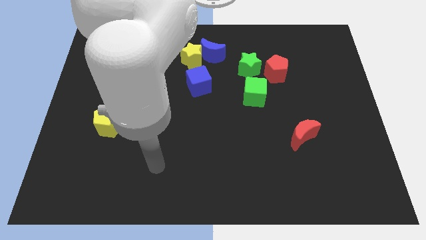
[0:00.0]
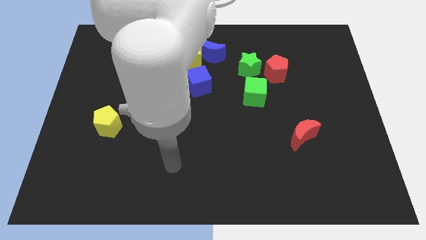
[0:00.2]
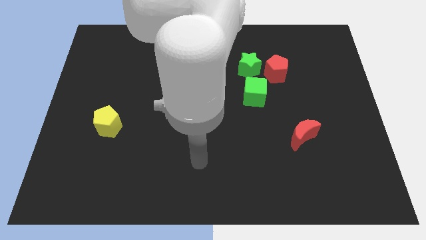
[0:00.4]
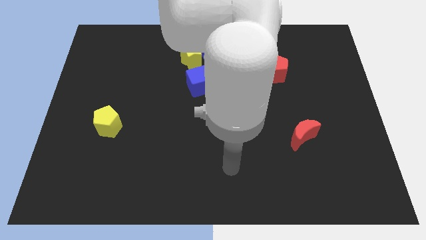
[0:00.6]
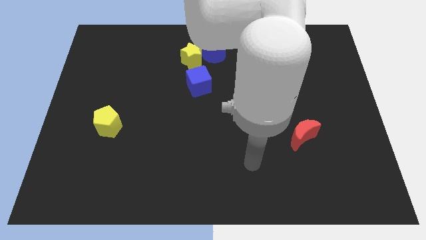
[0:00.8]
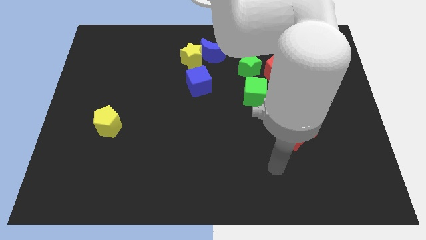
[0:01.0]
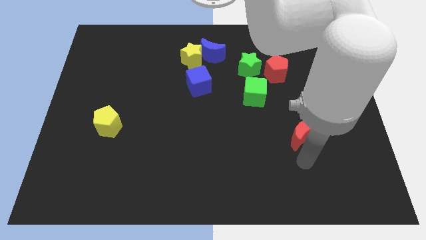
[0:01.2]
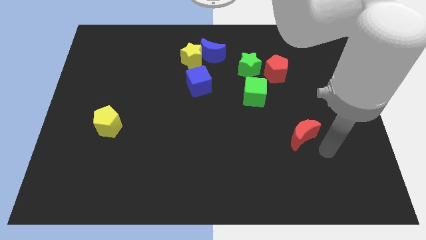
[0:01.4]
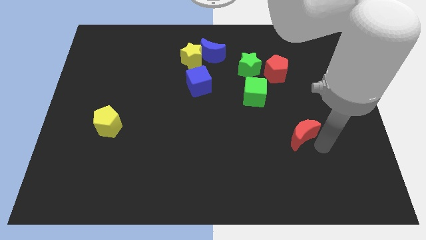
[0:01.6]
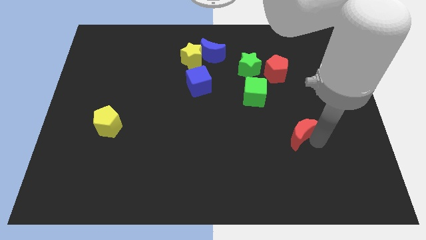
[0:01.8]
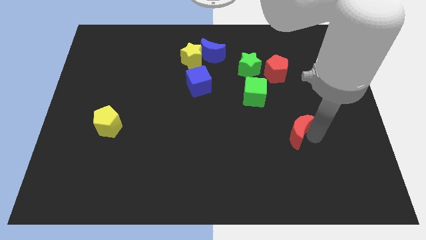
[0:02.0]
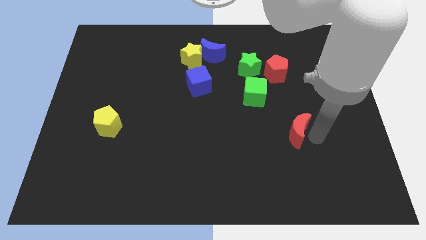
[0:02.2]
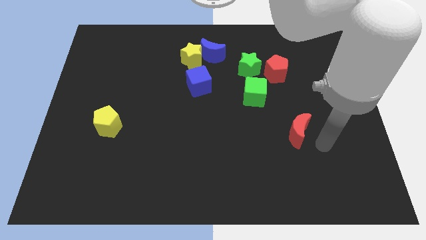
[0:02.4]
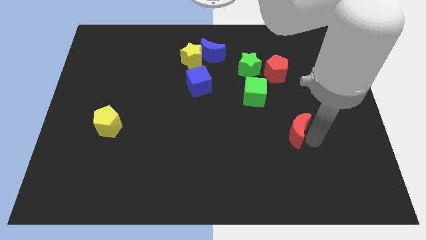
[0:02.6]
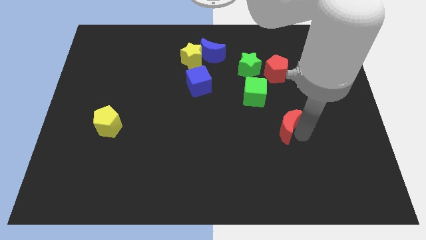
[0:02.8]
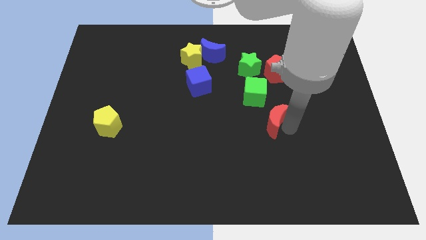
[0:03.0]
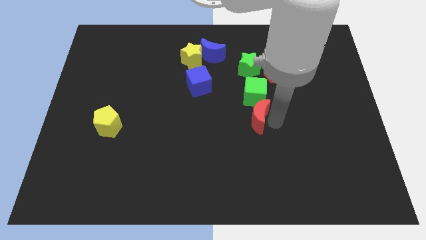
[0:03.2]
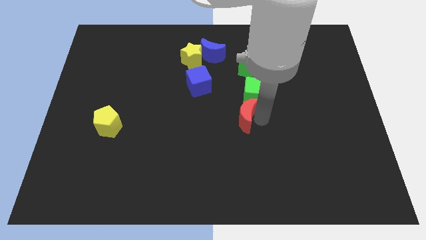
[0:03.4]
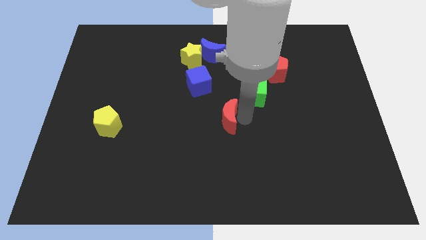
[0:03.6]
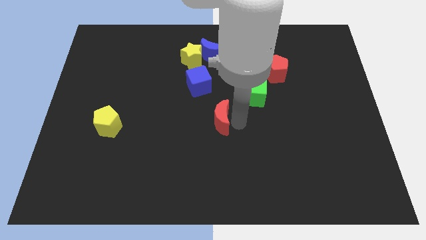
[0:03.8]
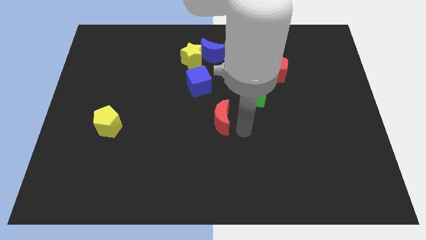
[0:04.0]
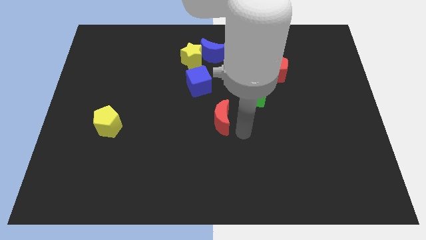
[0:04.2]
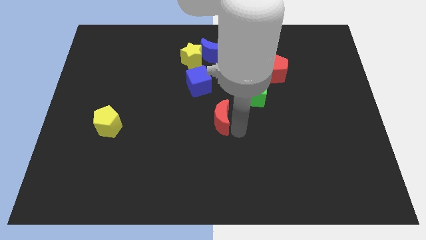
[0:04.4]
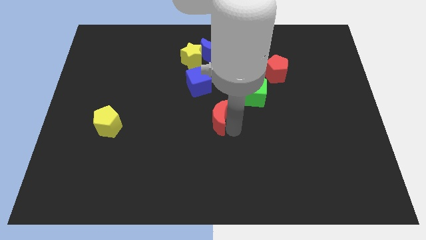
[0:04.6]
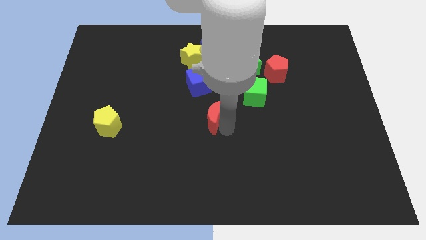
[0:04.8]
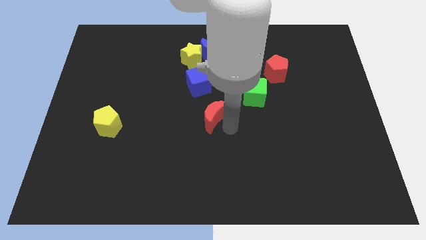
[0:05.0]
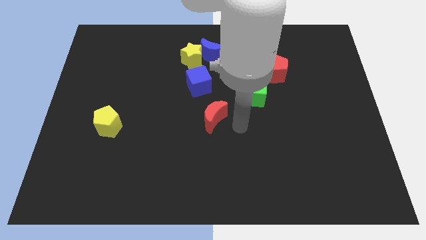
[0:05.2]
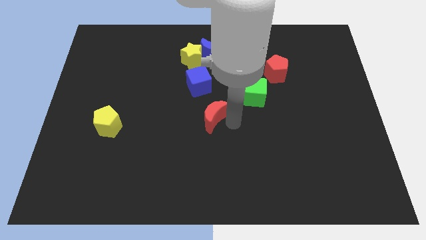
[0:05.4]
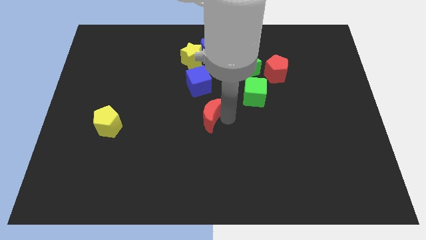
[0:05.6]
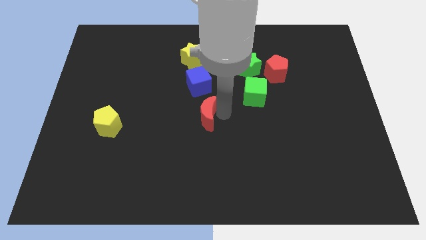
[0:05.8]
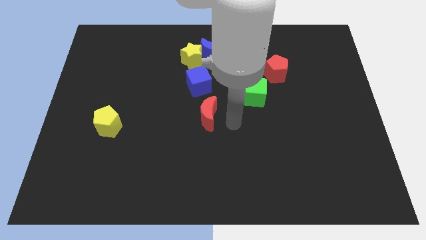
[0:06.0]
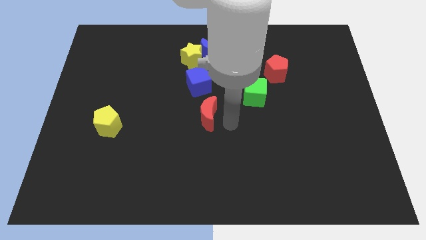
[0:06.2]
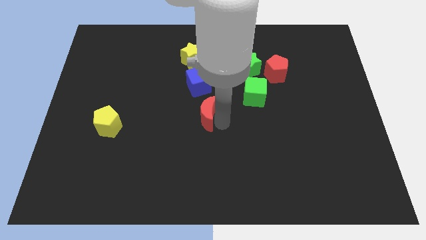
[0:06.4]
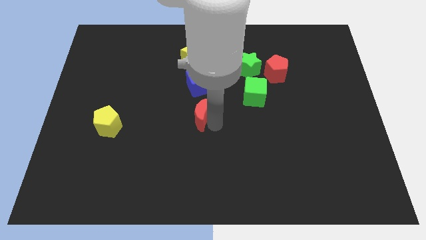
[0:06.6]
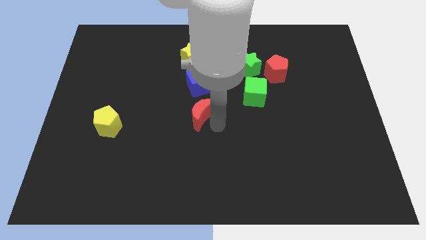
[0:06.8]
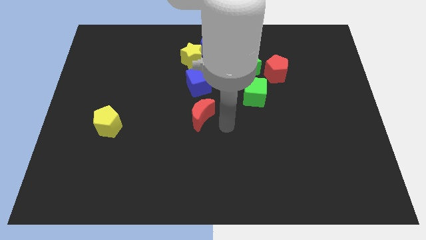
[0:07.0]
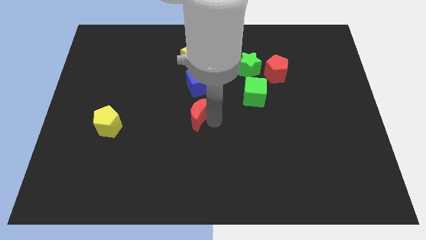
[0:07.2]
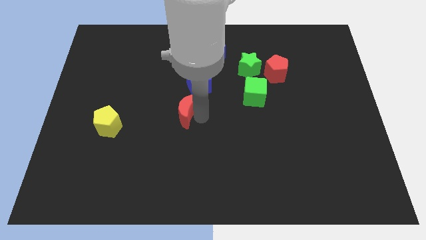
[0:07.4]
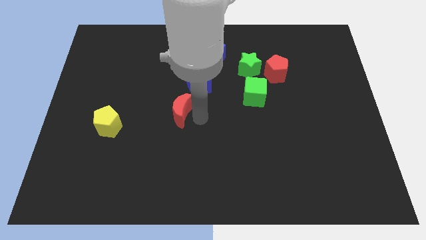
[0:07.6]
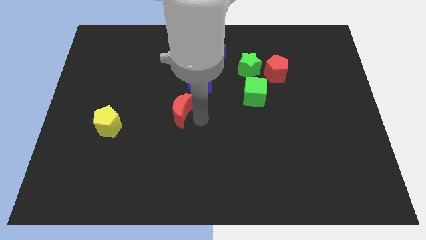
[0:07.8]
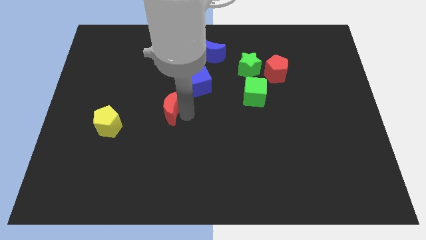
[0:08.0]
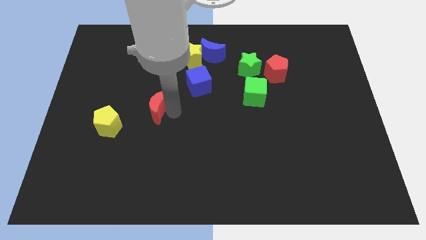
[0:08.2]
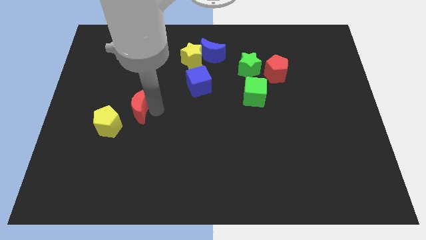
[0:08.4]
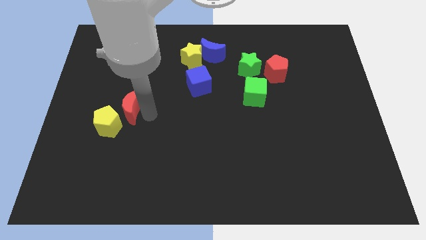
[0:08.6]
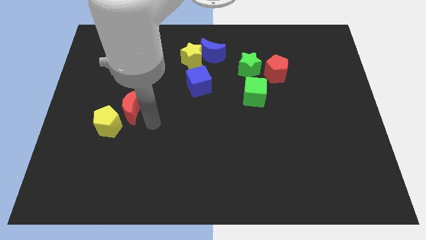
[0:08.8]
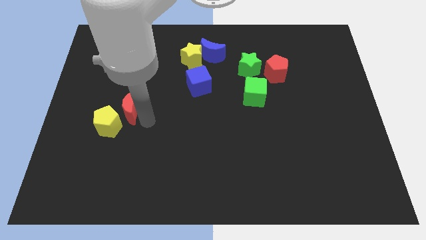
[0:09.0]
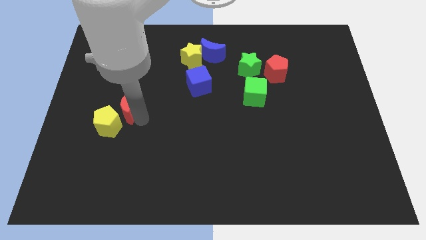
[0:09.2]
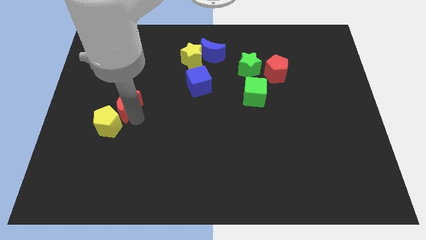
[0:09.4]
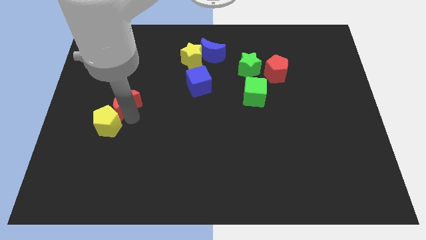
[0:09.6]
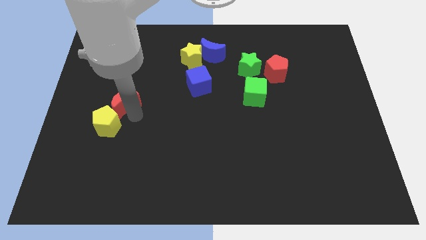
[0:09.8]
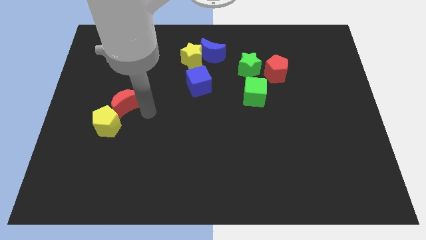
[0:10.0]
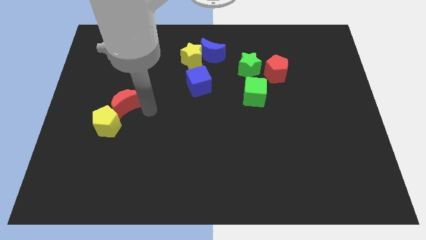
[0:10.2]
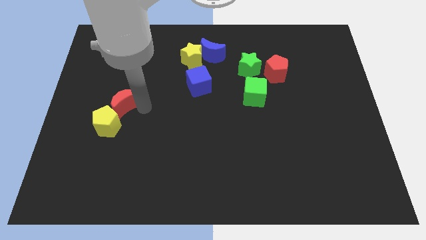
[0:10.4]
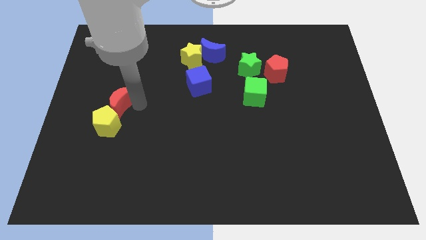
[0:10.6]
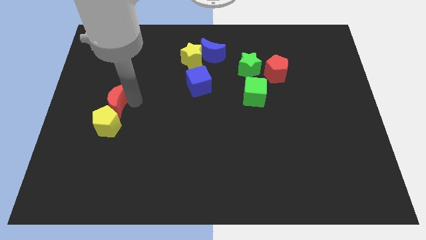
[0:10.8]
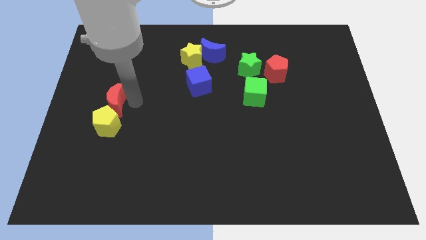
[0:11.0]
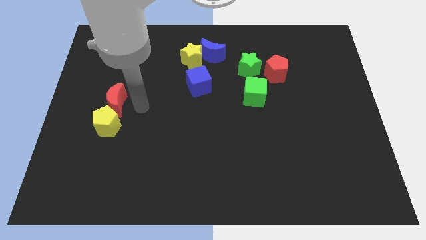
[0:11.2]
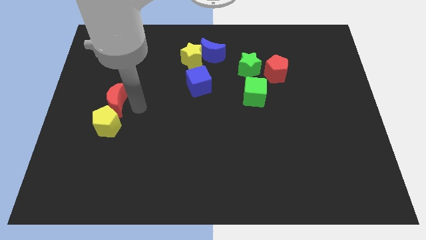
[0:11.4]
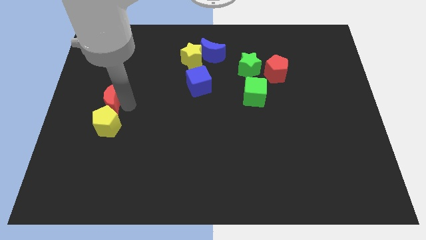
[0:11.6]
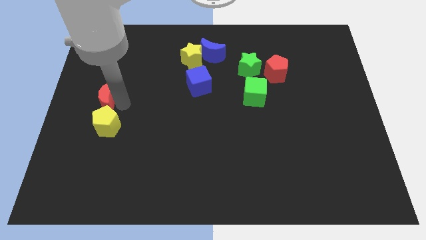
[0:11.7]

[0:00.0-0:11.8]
slide the red moon to the left side

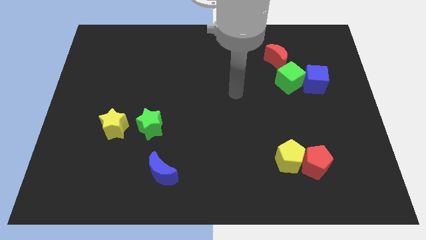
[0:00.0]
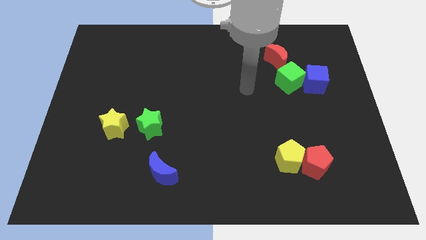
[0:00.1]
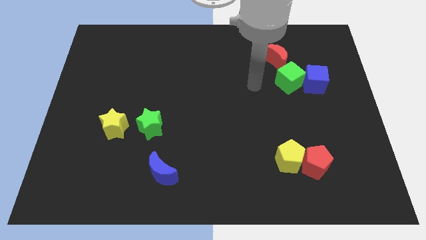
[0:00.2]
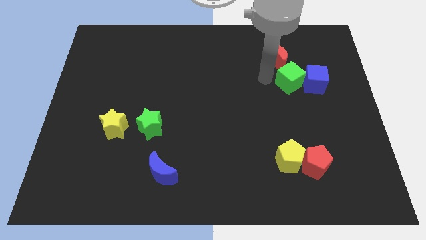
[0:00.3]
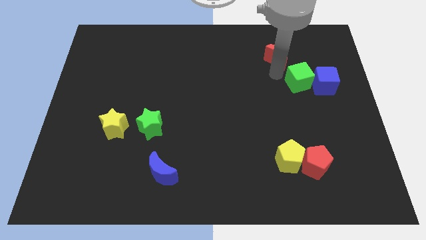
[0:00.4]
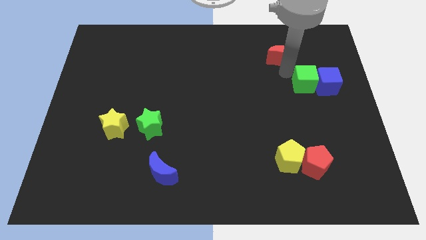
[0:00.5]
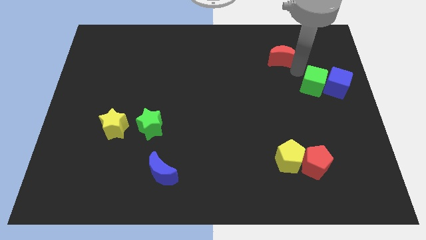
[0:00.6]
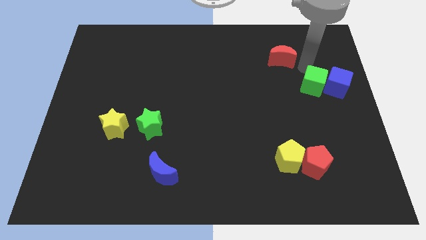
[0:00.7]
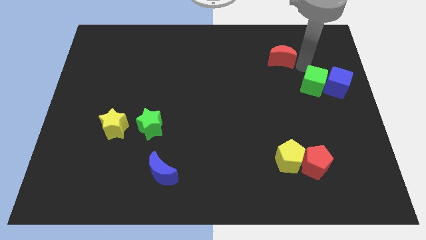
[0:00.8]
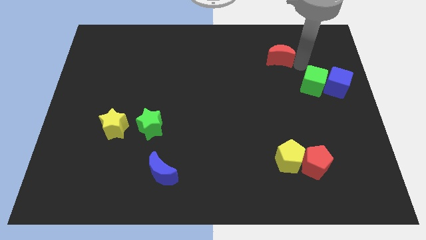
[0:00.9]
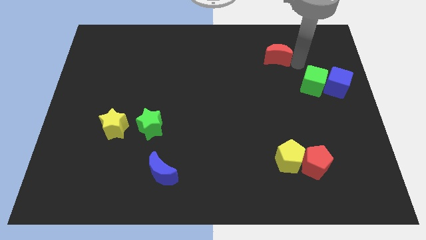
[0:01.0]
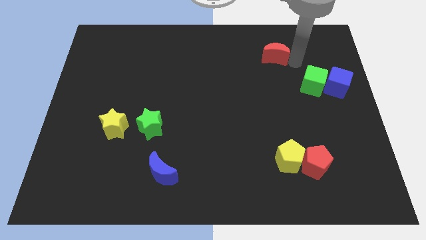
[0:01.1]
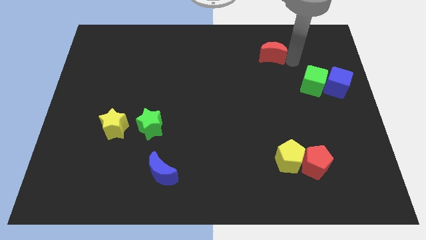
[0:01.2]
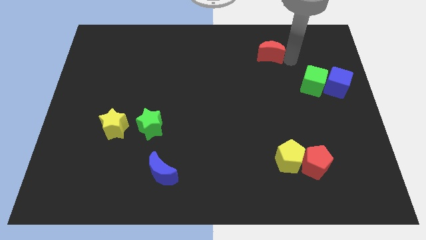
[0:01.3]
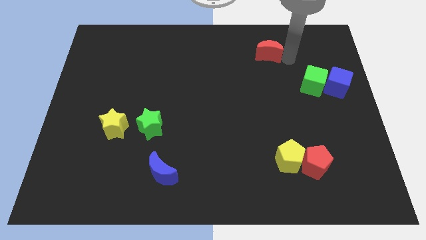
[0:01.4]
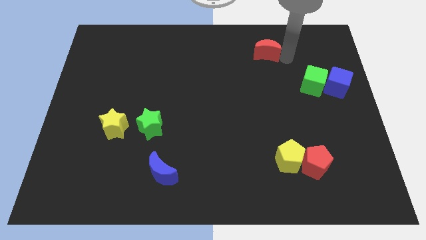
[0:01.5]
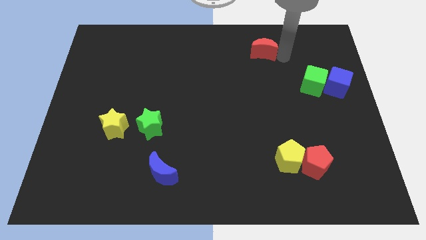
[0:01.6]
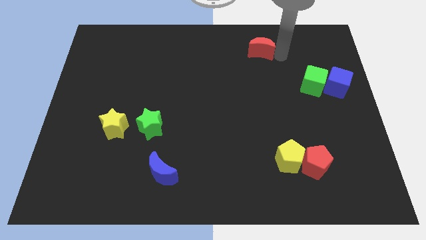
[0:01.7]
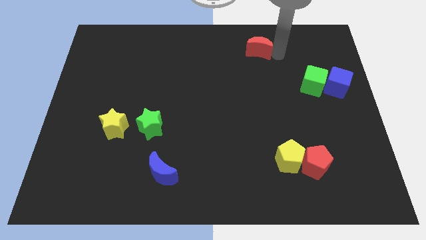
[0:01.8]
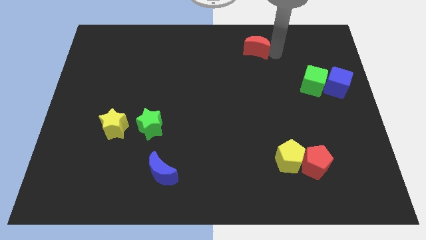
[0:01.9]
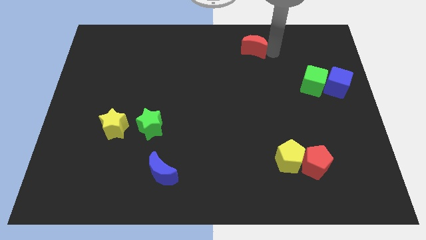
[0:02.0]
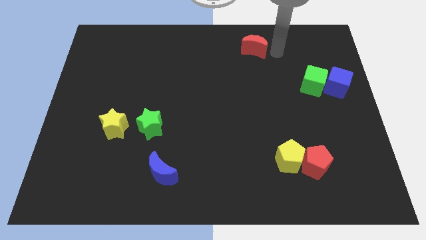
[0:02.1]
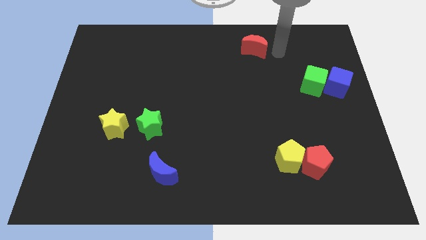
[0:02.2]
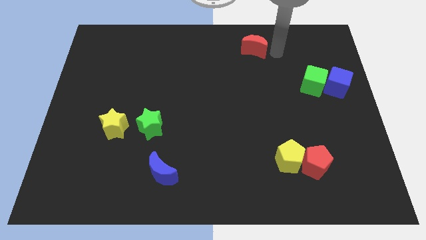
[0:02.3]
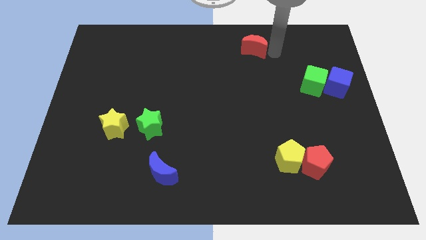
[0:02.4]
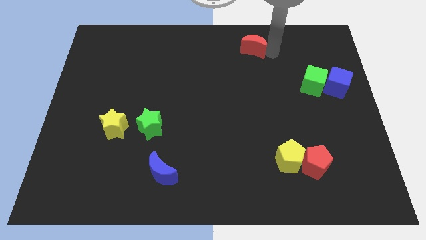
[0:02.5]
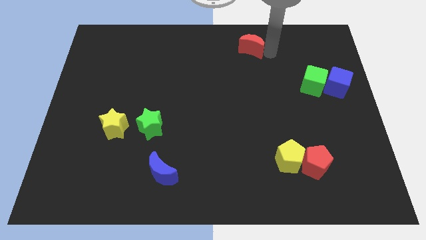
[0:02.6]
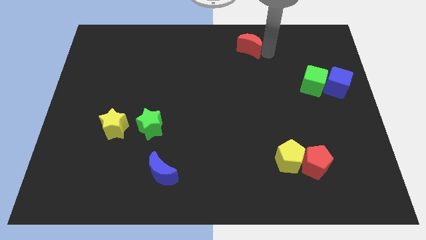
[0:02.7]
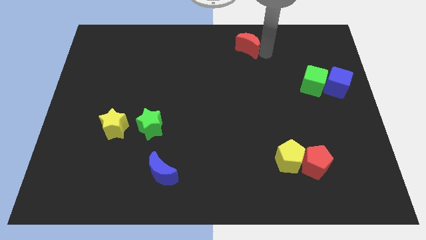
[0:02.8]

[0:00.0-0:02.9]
put the red moon to the top
